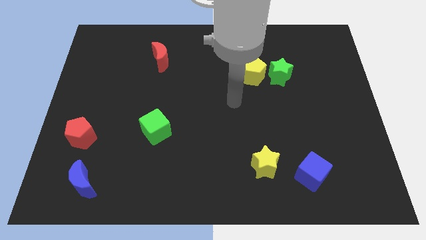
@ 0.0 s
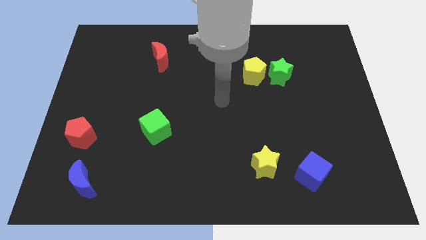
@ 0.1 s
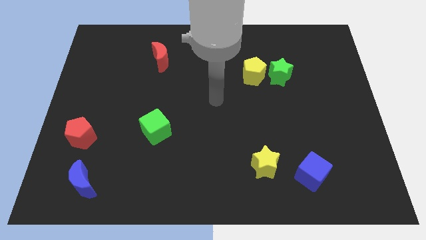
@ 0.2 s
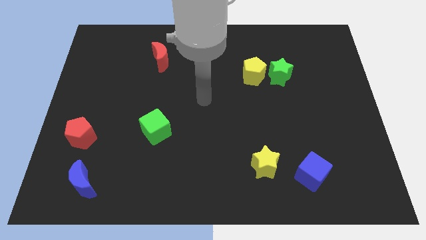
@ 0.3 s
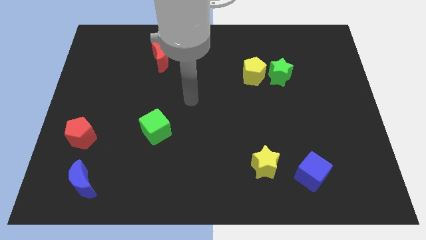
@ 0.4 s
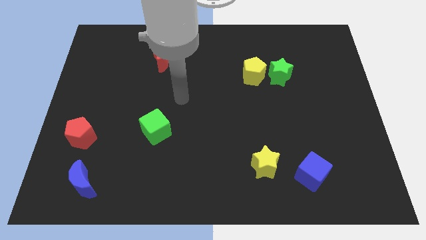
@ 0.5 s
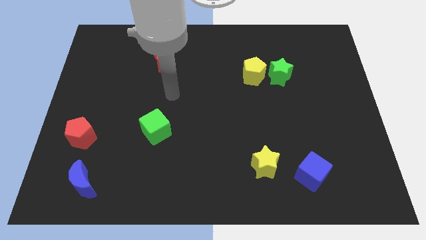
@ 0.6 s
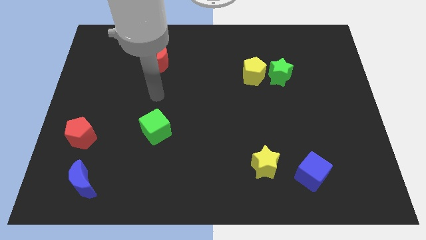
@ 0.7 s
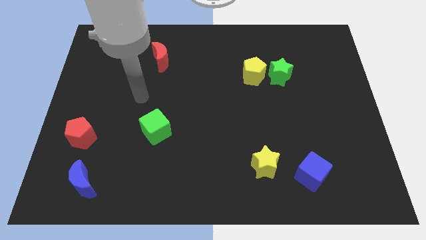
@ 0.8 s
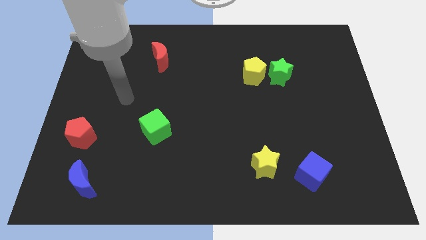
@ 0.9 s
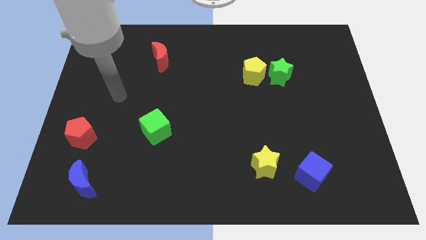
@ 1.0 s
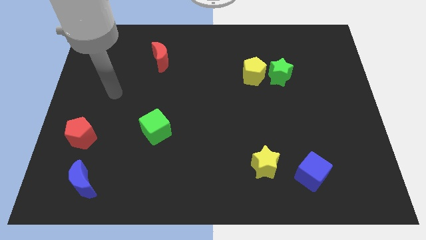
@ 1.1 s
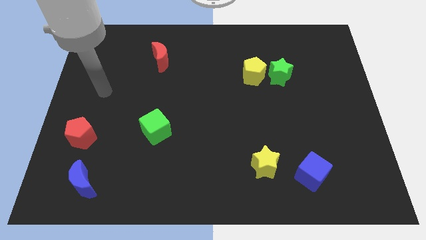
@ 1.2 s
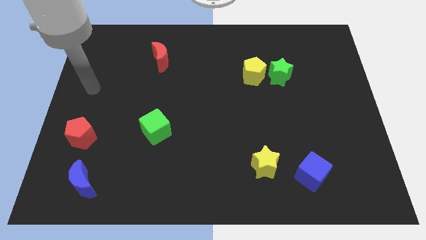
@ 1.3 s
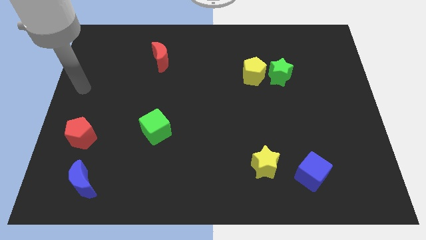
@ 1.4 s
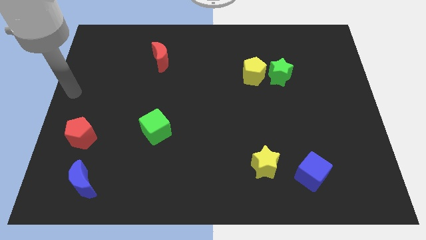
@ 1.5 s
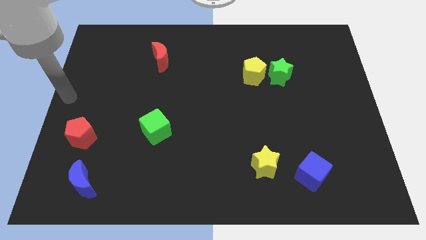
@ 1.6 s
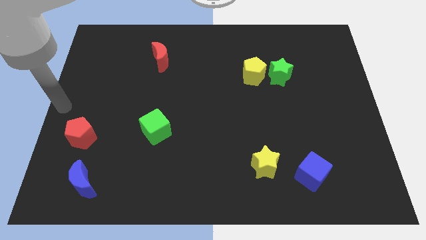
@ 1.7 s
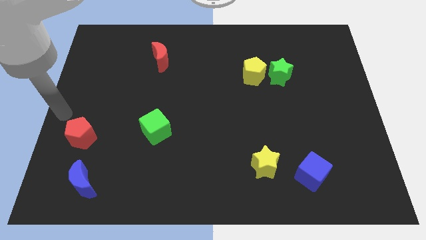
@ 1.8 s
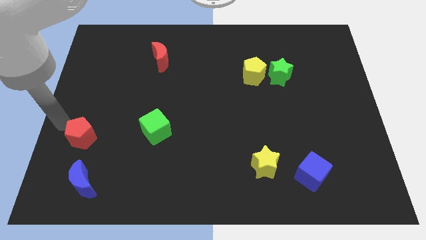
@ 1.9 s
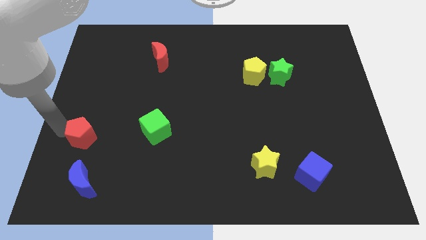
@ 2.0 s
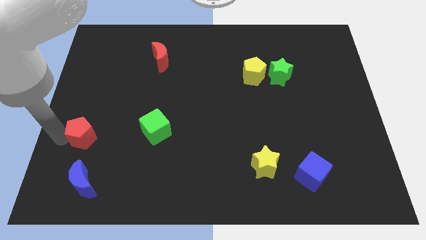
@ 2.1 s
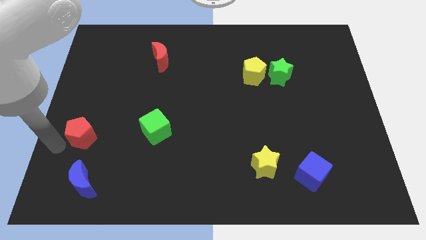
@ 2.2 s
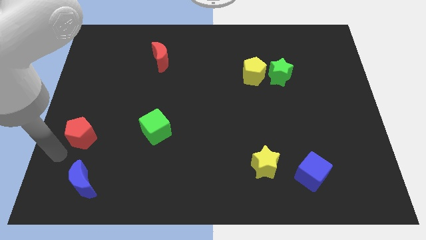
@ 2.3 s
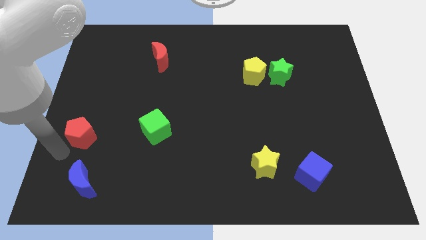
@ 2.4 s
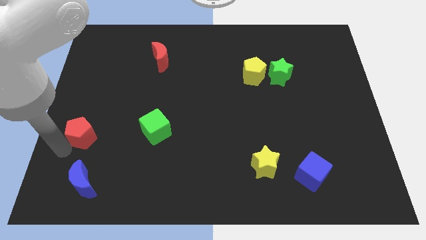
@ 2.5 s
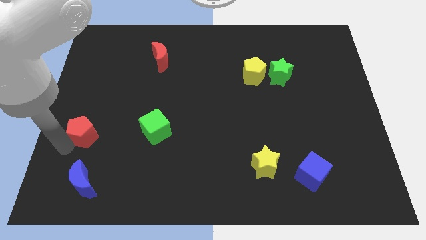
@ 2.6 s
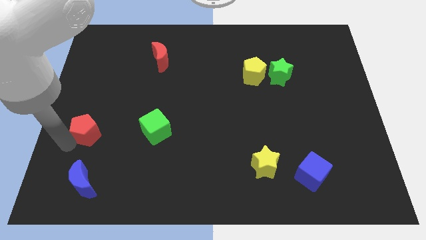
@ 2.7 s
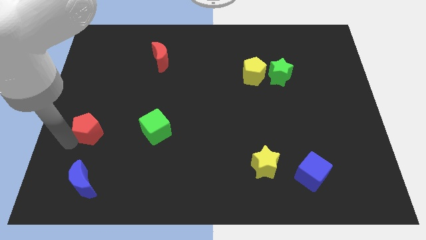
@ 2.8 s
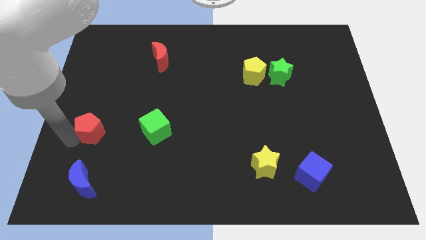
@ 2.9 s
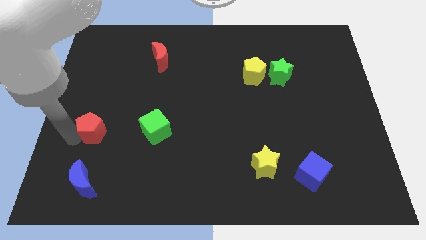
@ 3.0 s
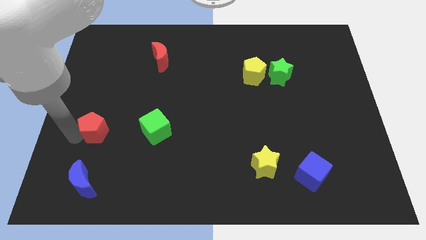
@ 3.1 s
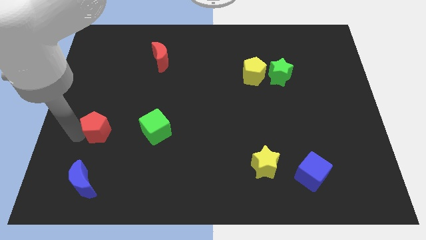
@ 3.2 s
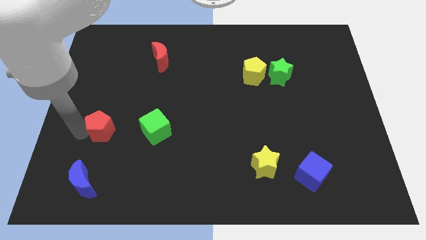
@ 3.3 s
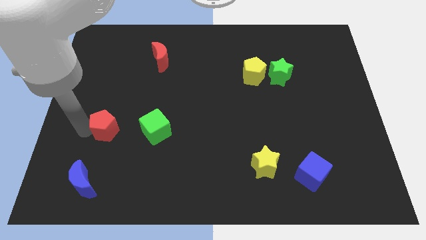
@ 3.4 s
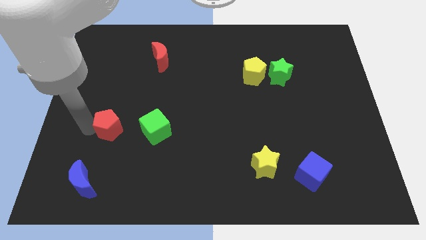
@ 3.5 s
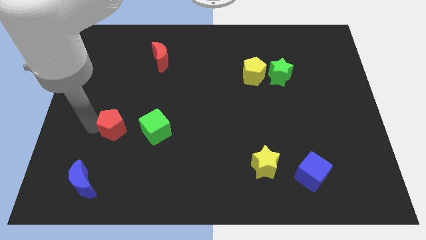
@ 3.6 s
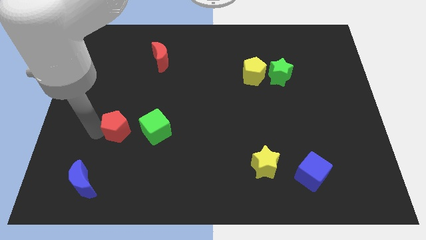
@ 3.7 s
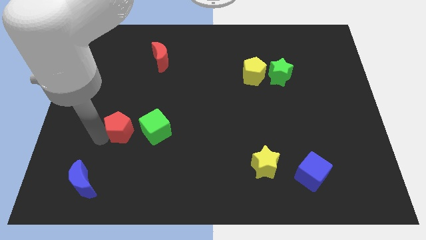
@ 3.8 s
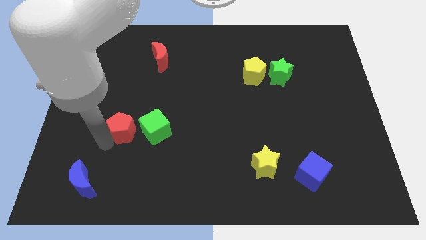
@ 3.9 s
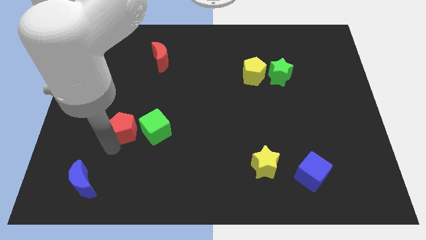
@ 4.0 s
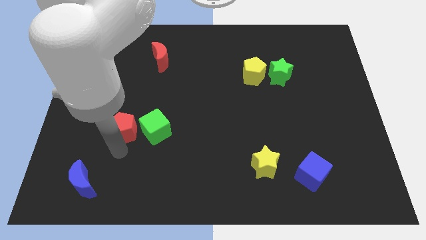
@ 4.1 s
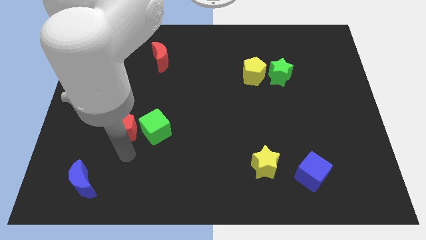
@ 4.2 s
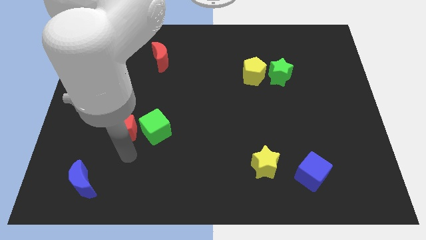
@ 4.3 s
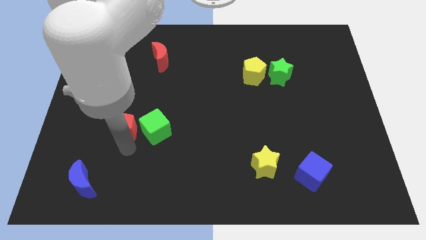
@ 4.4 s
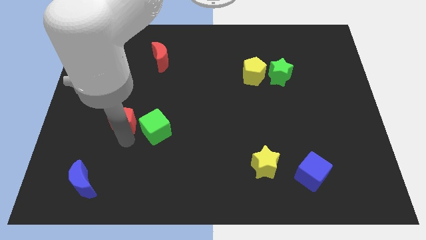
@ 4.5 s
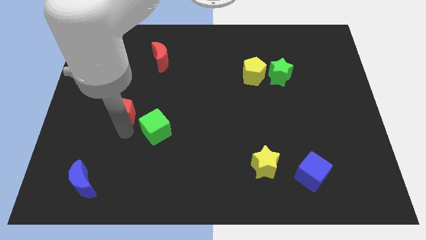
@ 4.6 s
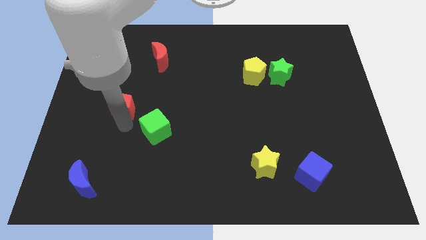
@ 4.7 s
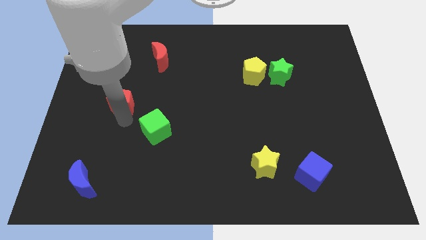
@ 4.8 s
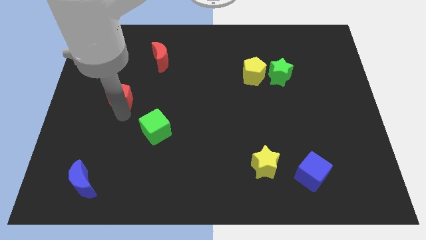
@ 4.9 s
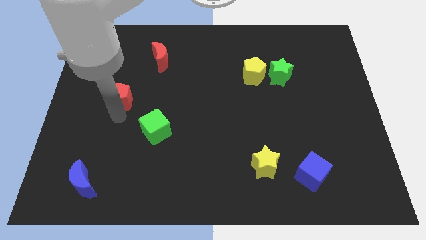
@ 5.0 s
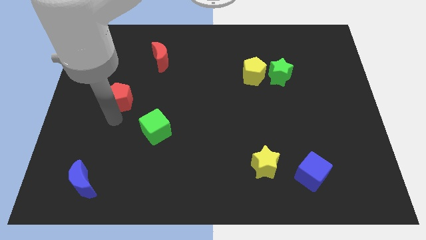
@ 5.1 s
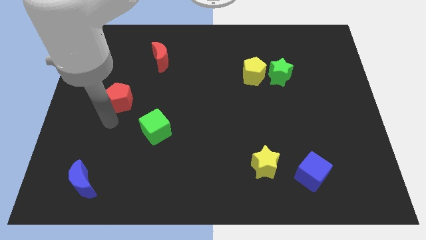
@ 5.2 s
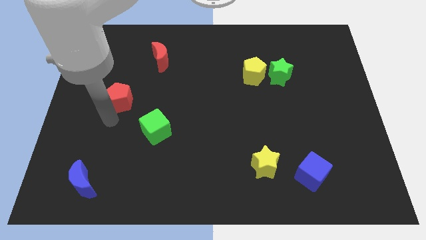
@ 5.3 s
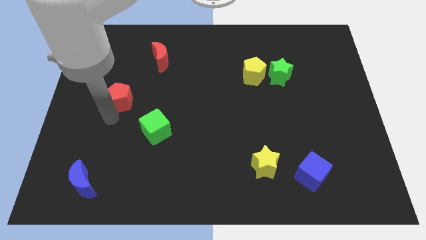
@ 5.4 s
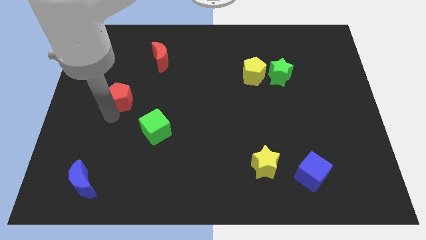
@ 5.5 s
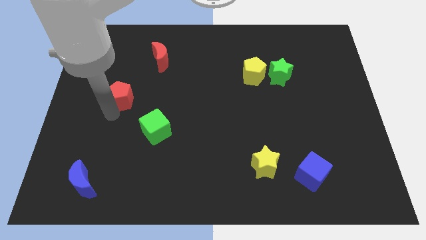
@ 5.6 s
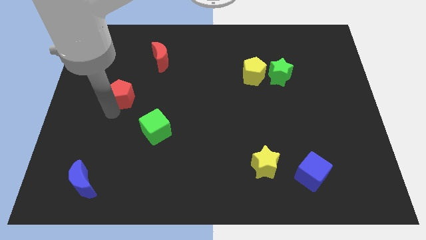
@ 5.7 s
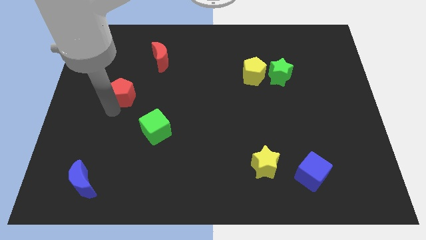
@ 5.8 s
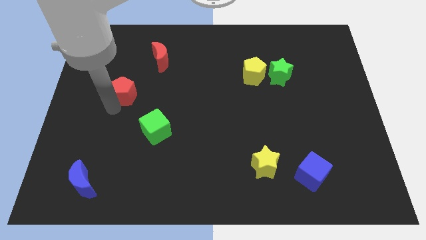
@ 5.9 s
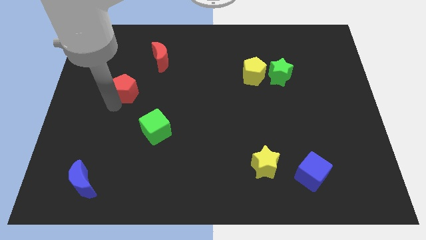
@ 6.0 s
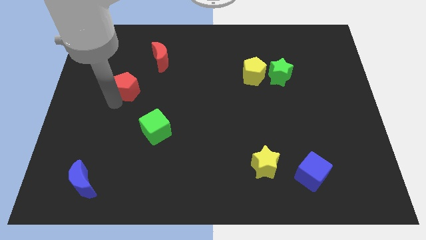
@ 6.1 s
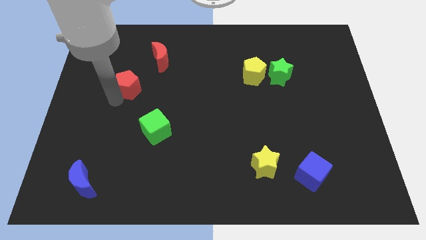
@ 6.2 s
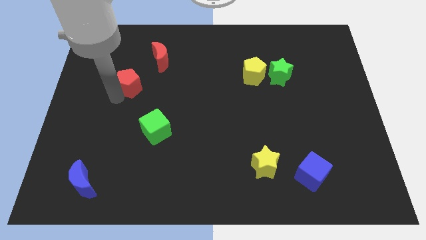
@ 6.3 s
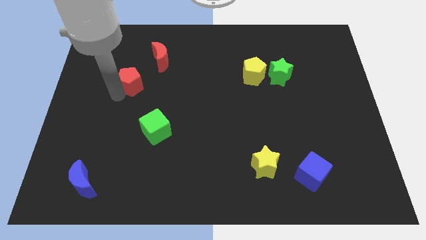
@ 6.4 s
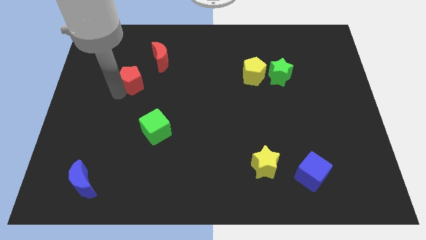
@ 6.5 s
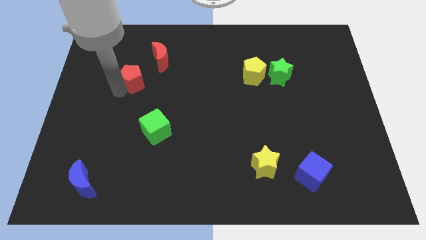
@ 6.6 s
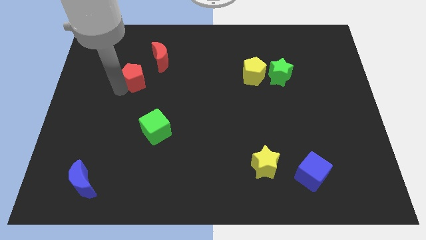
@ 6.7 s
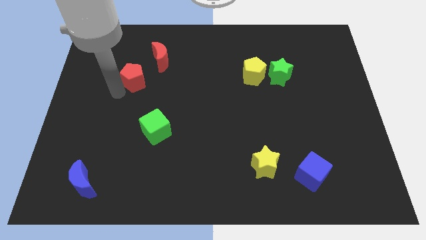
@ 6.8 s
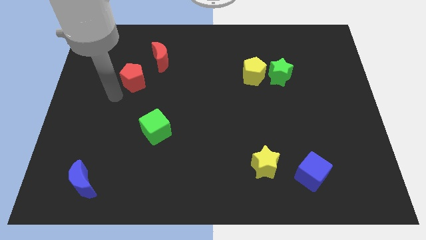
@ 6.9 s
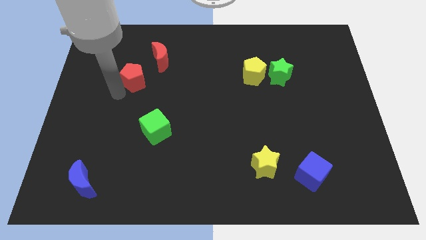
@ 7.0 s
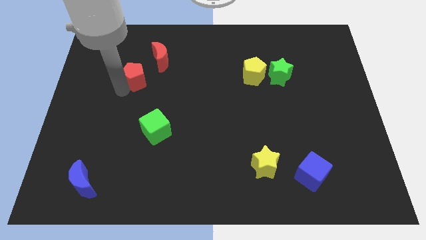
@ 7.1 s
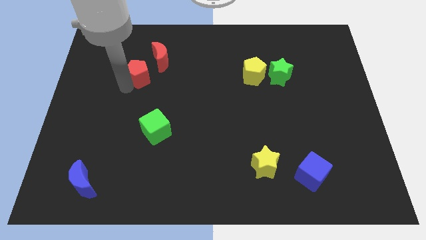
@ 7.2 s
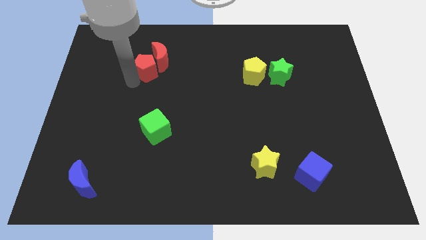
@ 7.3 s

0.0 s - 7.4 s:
move the red pentagon close to the red moon
